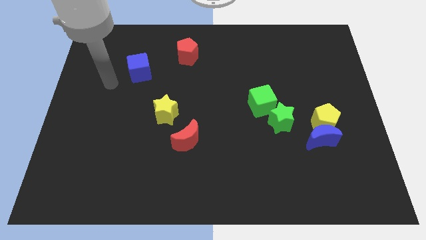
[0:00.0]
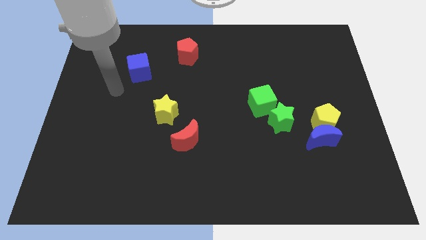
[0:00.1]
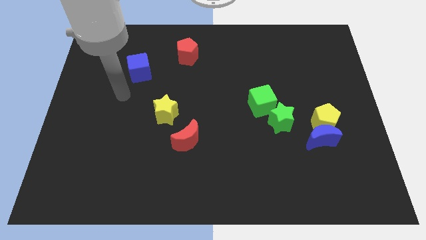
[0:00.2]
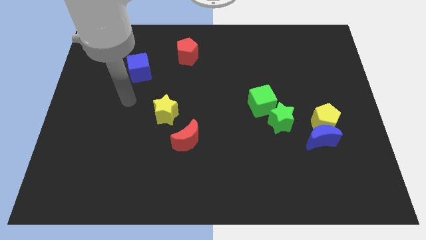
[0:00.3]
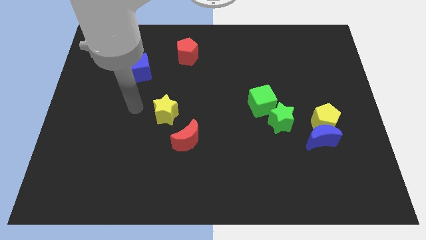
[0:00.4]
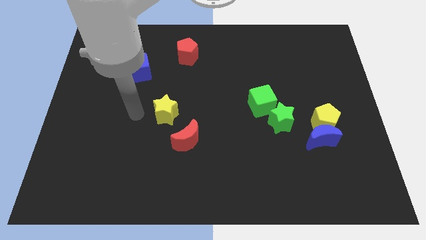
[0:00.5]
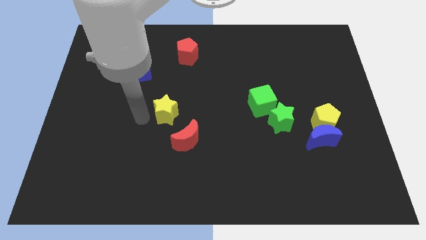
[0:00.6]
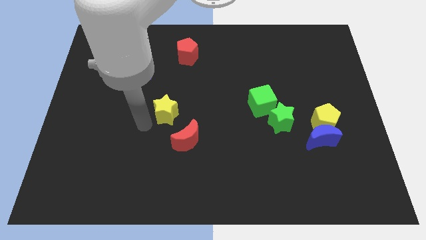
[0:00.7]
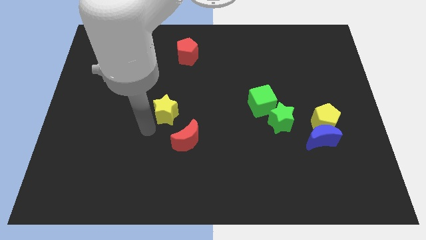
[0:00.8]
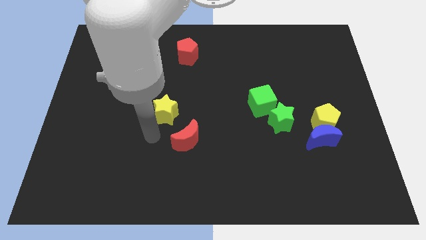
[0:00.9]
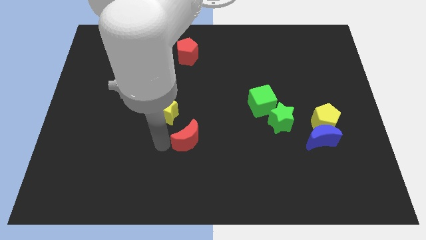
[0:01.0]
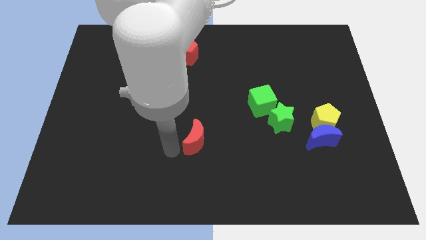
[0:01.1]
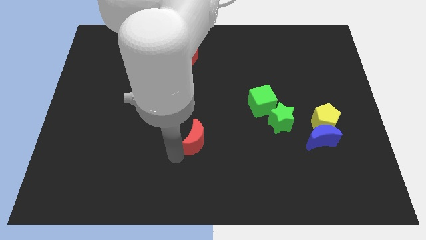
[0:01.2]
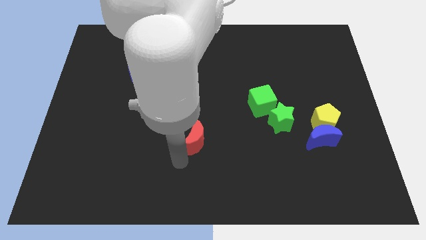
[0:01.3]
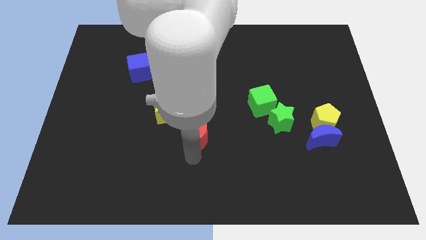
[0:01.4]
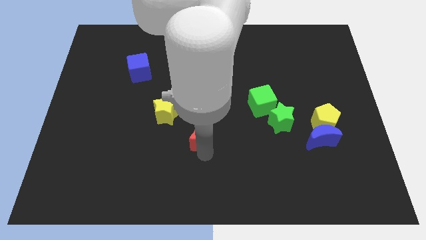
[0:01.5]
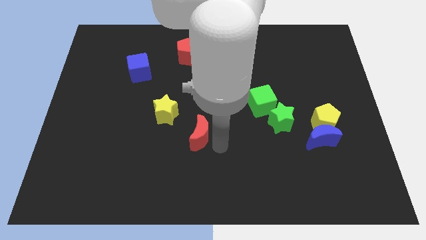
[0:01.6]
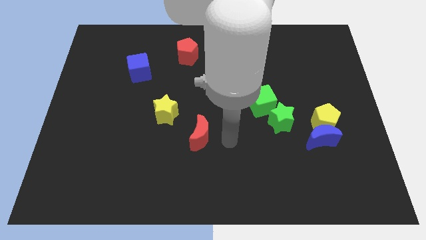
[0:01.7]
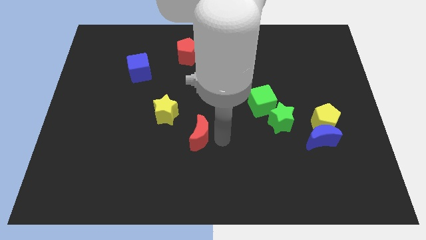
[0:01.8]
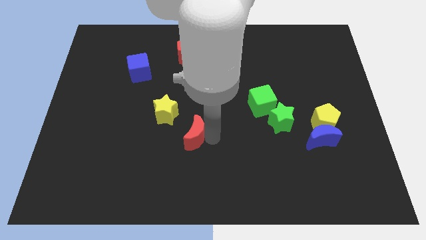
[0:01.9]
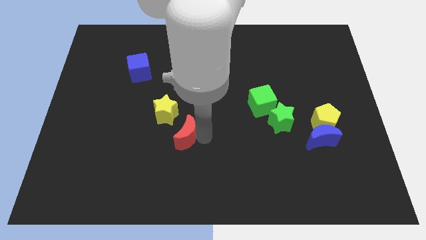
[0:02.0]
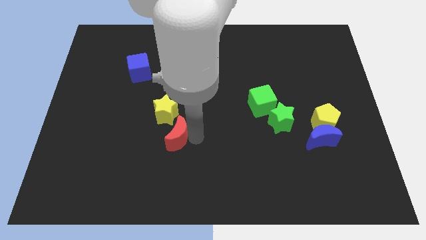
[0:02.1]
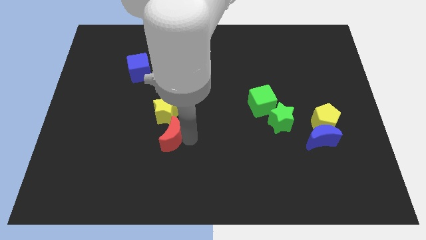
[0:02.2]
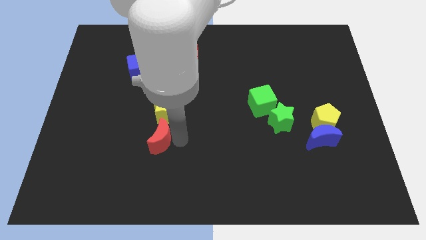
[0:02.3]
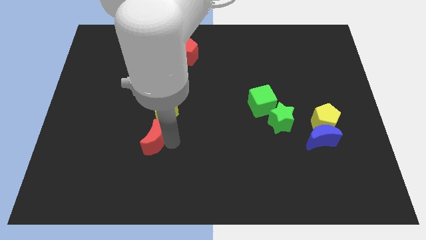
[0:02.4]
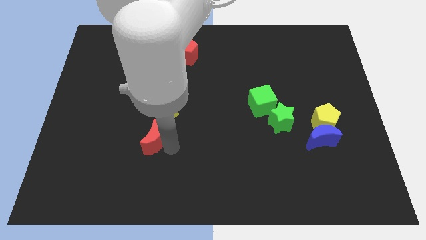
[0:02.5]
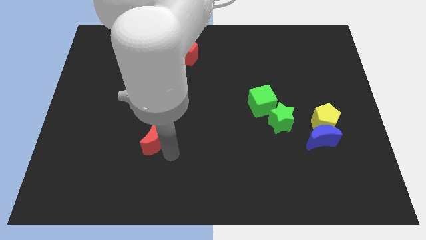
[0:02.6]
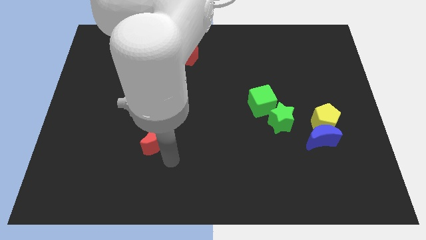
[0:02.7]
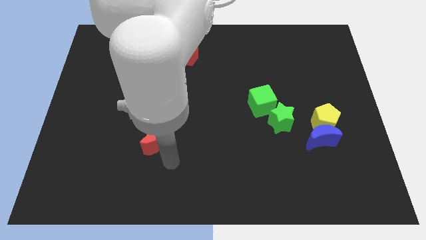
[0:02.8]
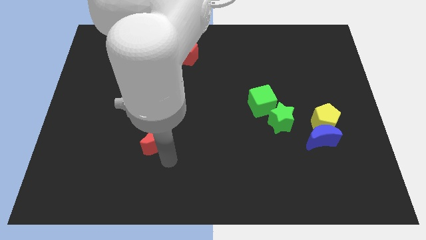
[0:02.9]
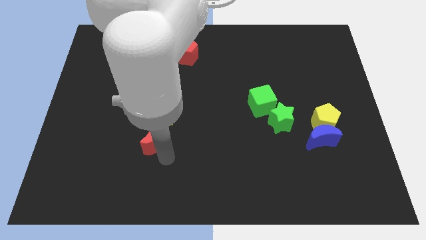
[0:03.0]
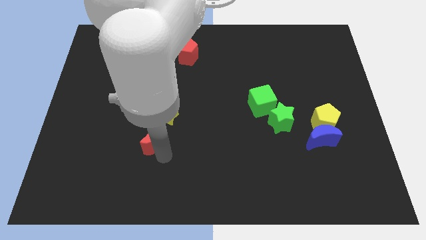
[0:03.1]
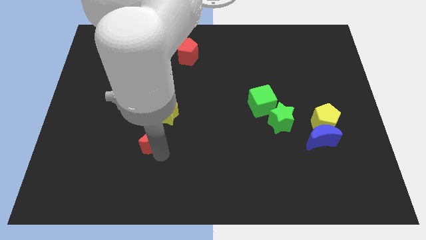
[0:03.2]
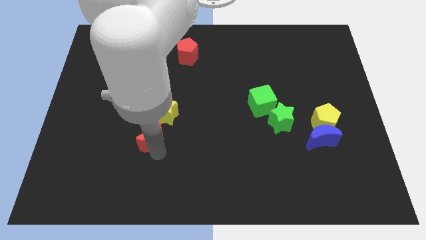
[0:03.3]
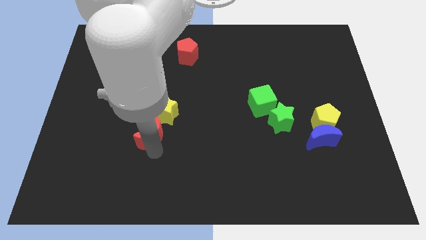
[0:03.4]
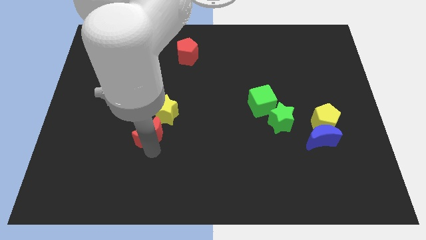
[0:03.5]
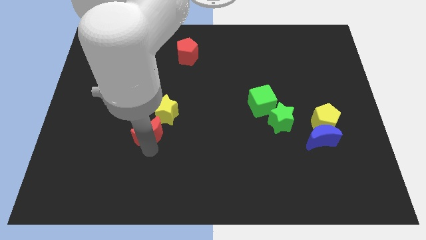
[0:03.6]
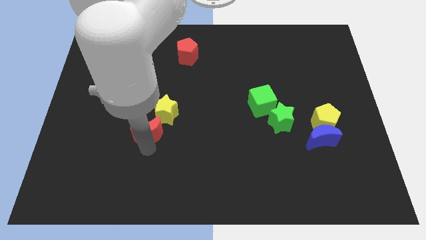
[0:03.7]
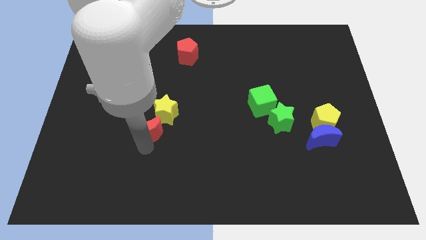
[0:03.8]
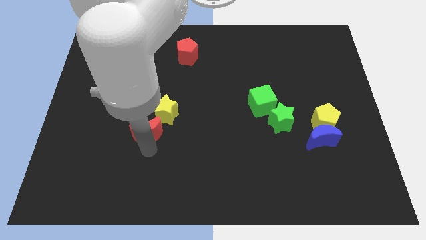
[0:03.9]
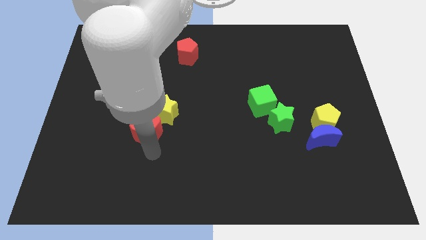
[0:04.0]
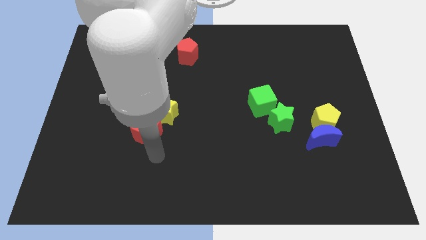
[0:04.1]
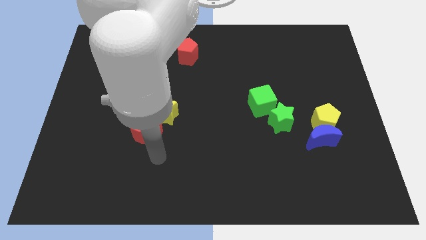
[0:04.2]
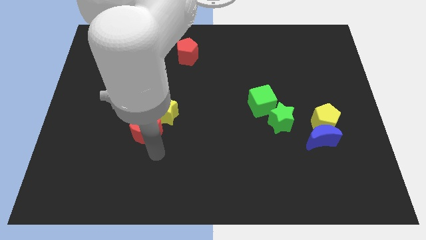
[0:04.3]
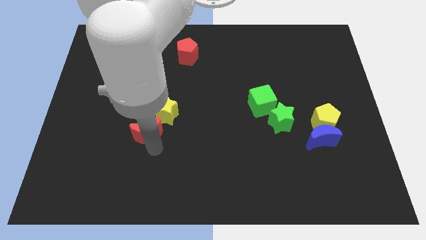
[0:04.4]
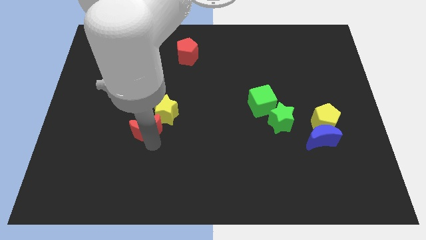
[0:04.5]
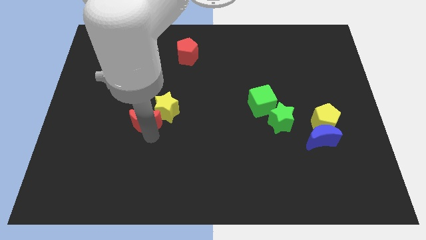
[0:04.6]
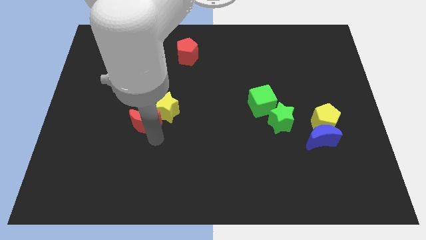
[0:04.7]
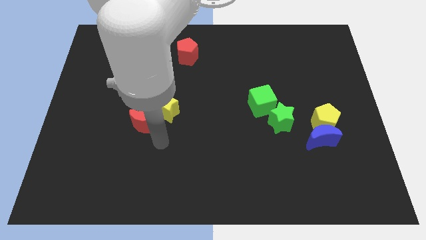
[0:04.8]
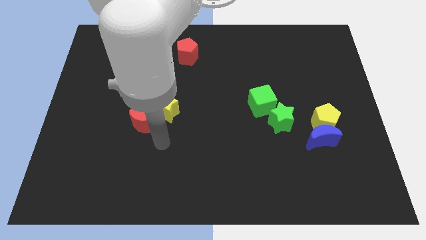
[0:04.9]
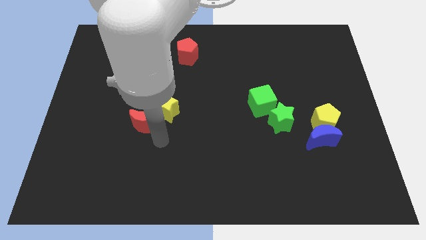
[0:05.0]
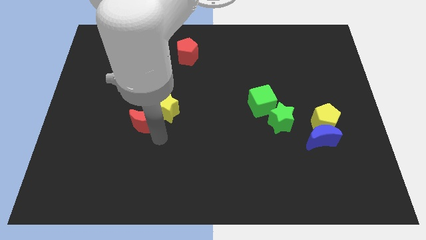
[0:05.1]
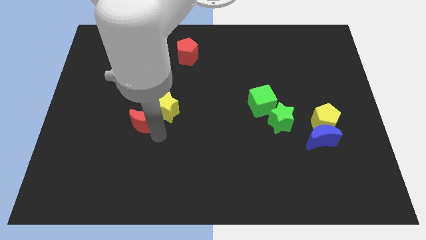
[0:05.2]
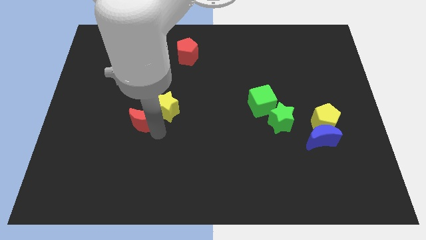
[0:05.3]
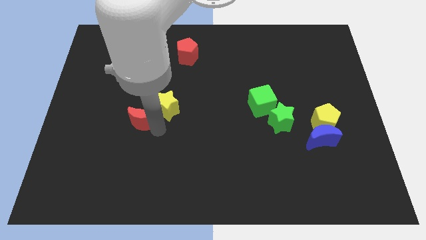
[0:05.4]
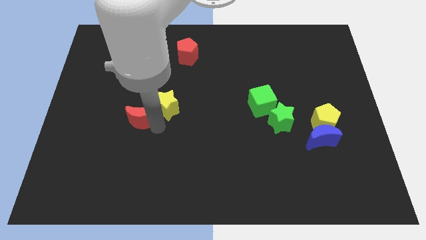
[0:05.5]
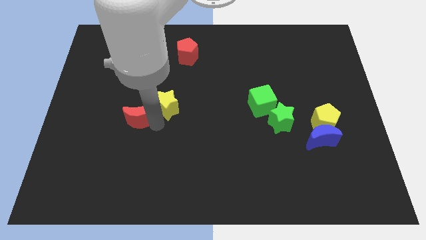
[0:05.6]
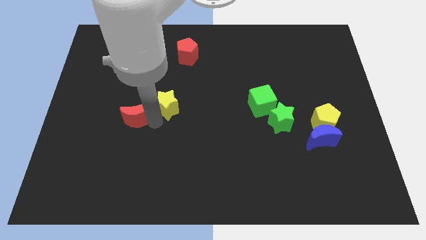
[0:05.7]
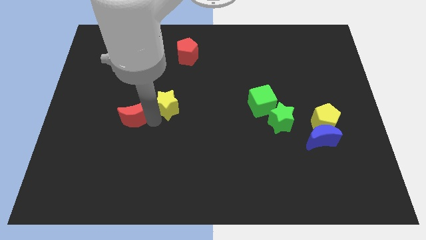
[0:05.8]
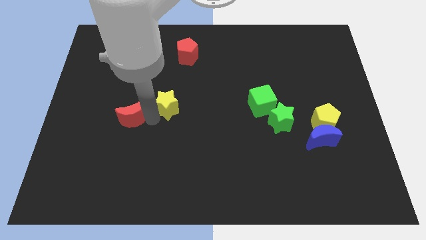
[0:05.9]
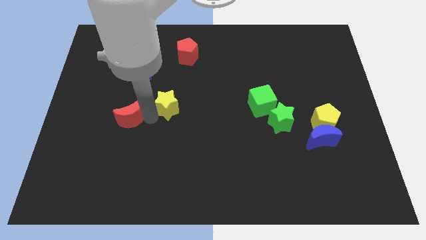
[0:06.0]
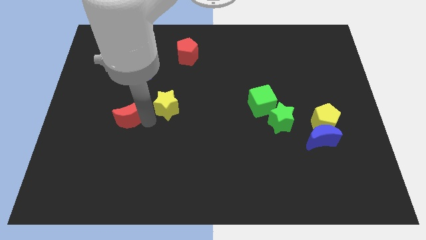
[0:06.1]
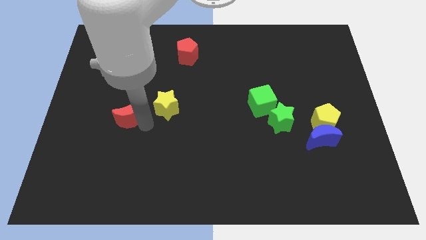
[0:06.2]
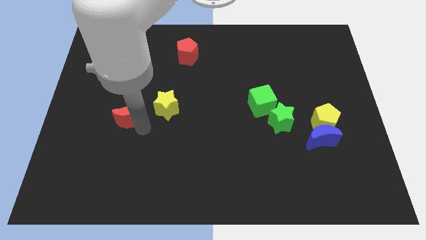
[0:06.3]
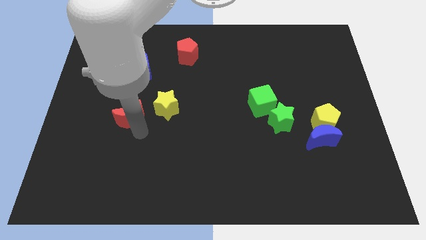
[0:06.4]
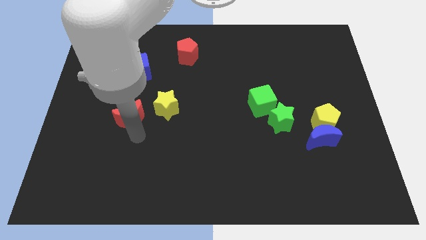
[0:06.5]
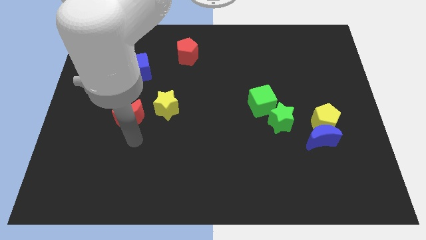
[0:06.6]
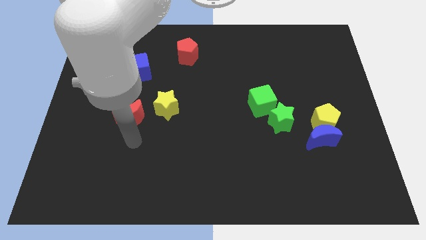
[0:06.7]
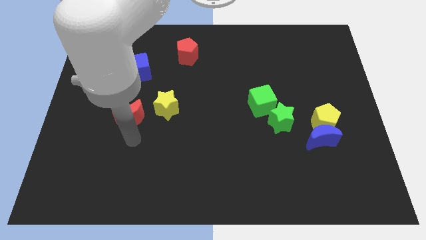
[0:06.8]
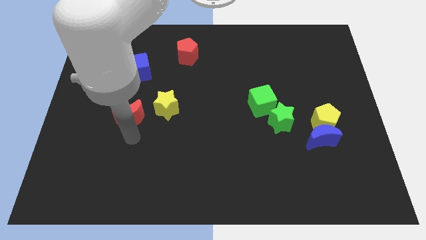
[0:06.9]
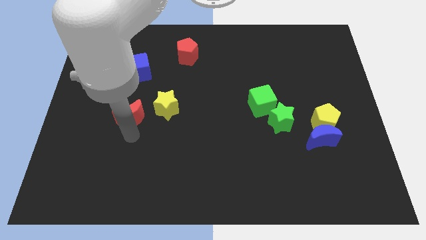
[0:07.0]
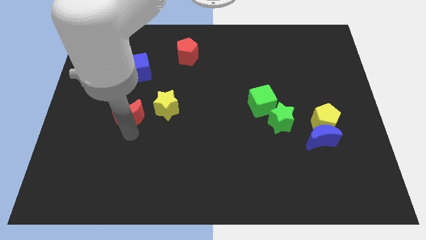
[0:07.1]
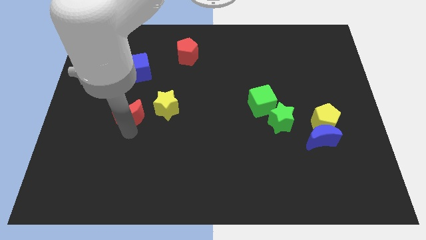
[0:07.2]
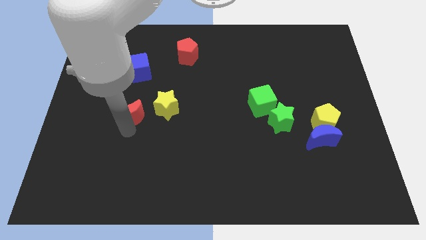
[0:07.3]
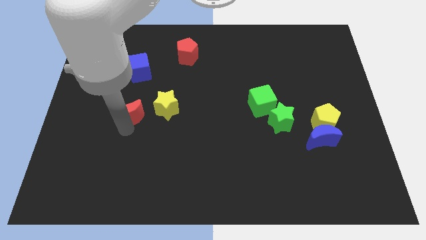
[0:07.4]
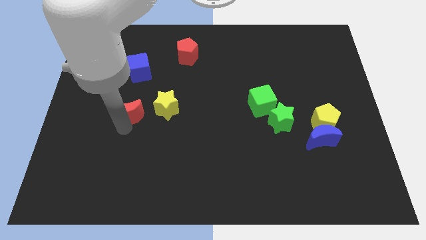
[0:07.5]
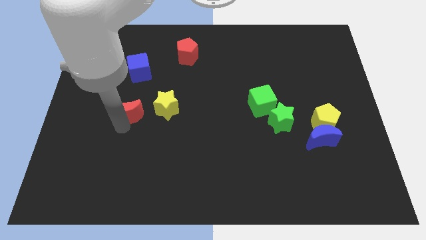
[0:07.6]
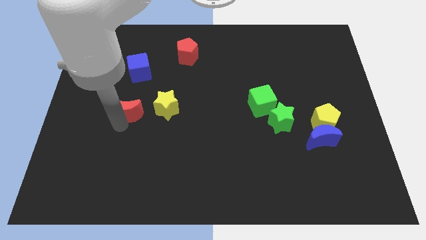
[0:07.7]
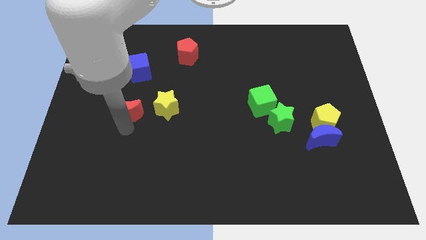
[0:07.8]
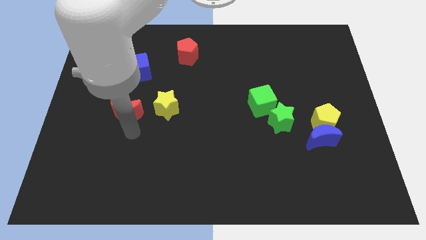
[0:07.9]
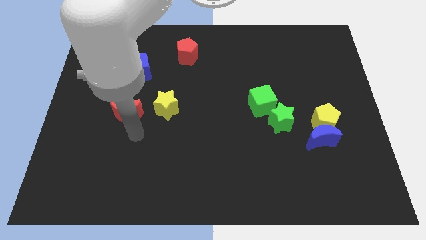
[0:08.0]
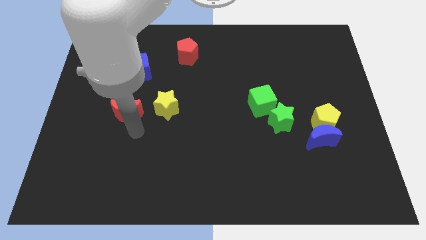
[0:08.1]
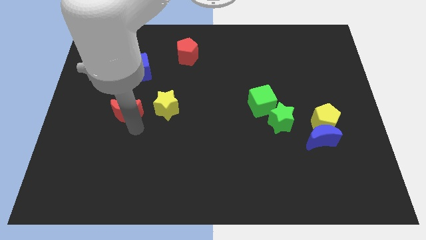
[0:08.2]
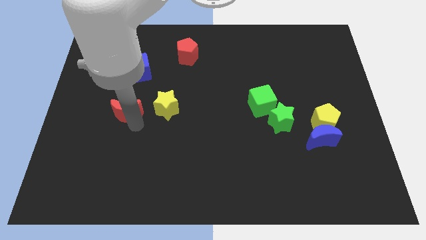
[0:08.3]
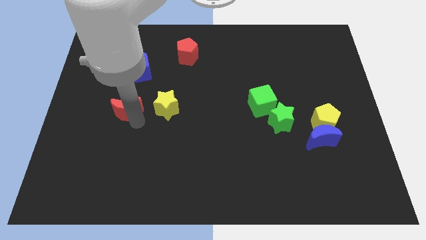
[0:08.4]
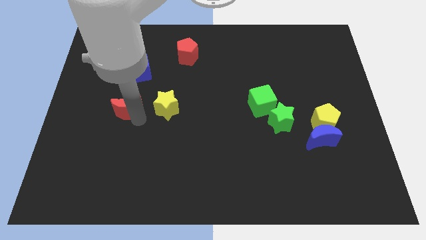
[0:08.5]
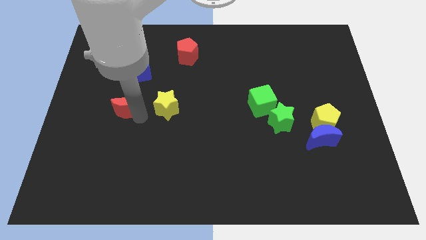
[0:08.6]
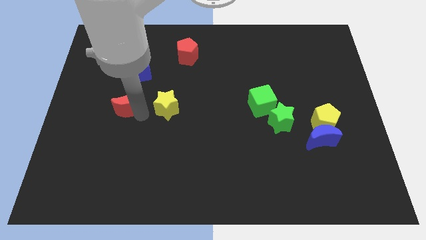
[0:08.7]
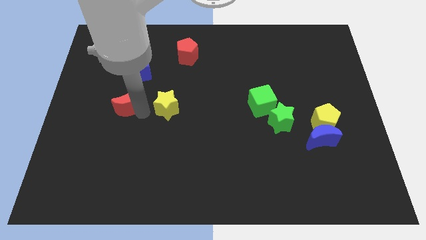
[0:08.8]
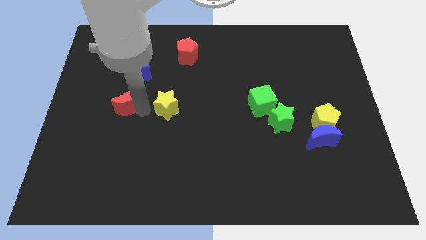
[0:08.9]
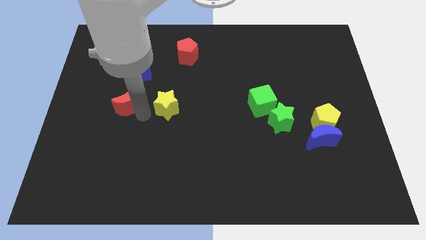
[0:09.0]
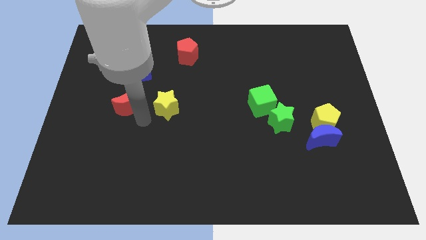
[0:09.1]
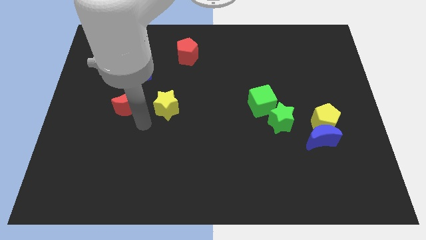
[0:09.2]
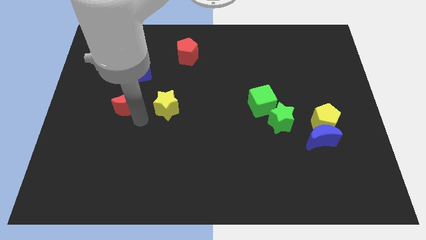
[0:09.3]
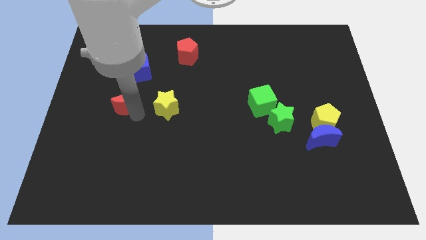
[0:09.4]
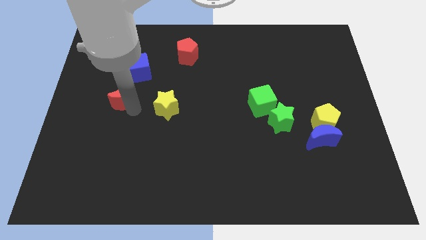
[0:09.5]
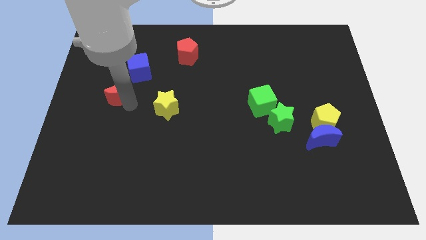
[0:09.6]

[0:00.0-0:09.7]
push the red moon to the bottom left of the blue cube
